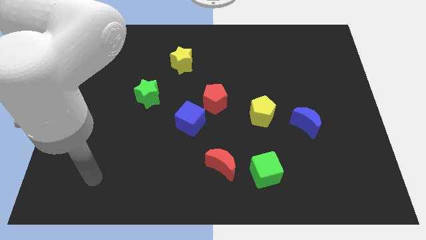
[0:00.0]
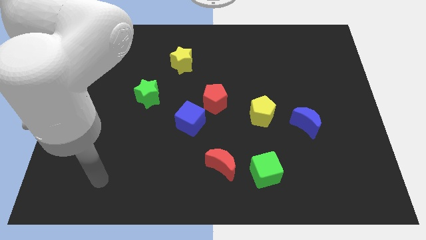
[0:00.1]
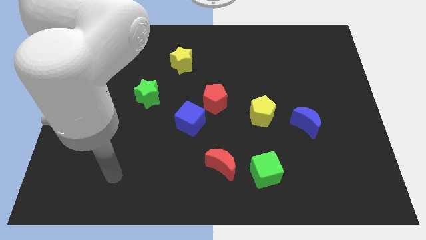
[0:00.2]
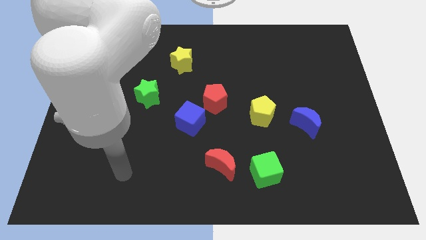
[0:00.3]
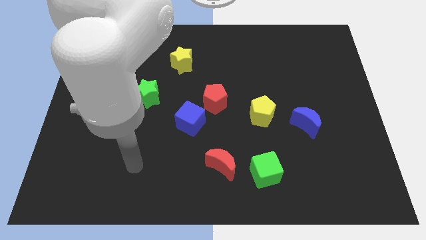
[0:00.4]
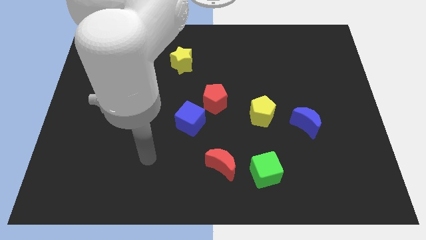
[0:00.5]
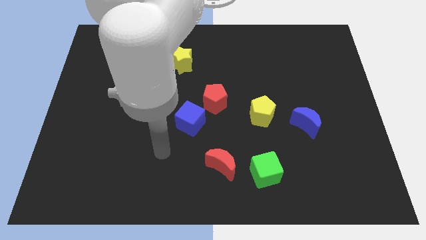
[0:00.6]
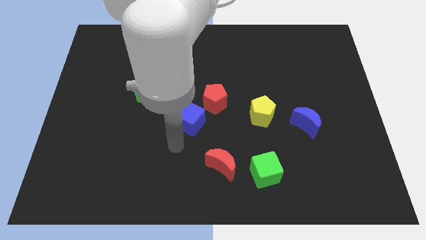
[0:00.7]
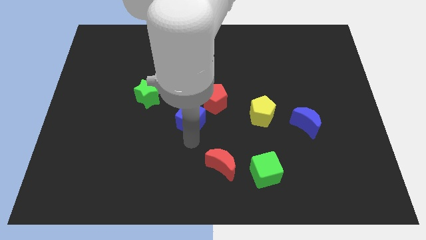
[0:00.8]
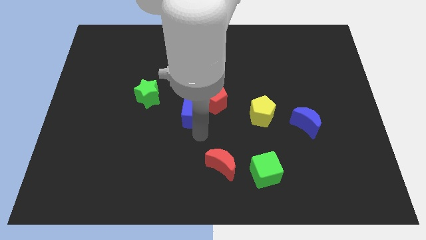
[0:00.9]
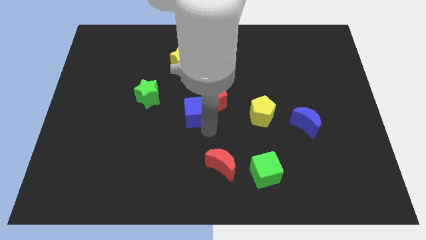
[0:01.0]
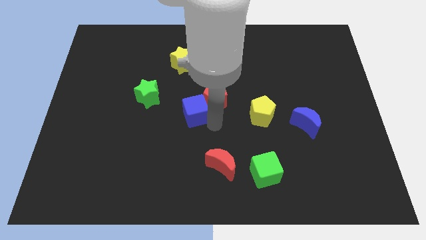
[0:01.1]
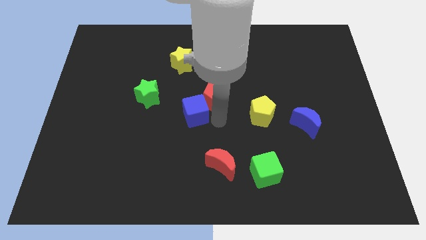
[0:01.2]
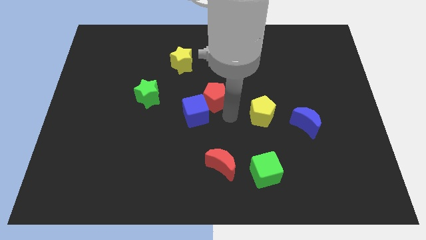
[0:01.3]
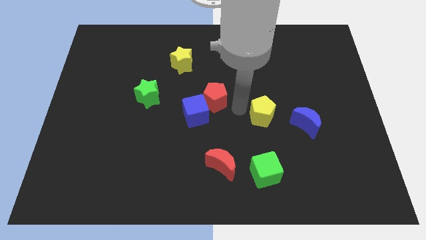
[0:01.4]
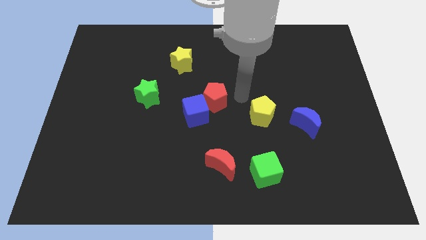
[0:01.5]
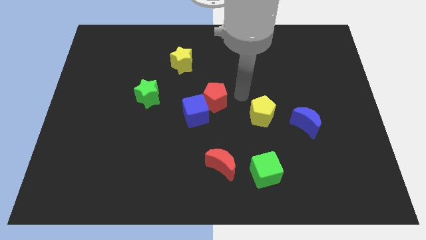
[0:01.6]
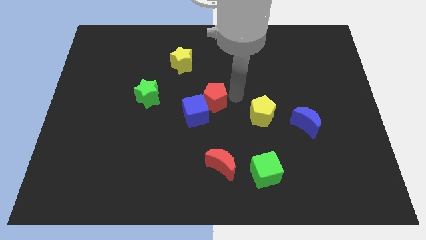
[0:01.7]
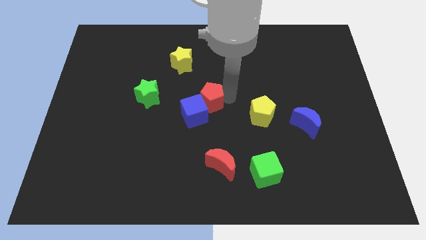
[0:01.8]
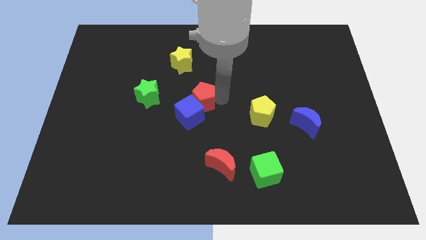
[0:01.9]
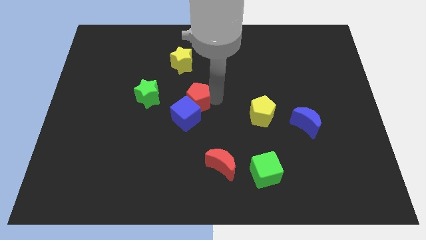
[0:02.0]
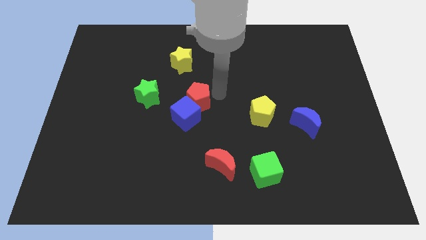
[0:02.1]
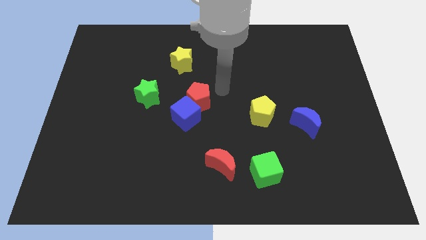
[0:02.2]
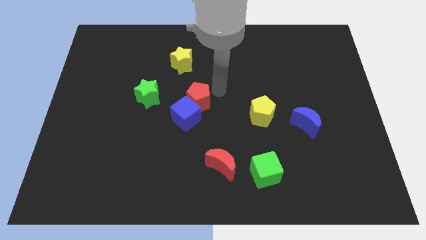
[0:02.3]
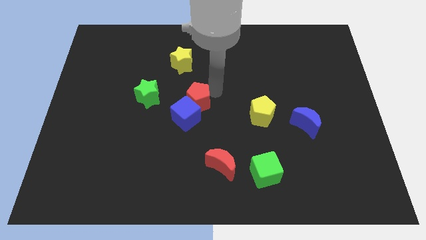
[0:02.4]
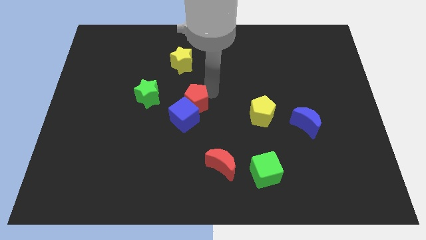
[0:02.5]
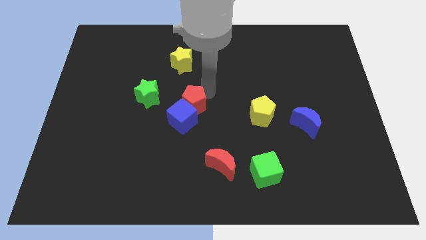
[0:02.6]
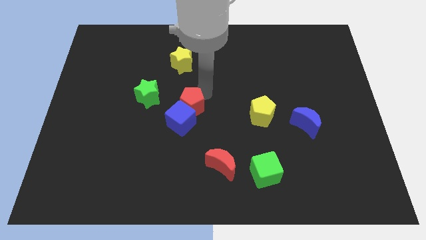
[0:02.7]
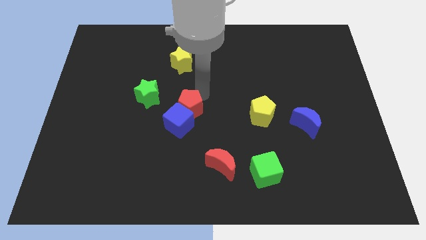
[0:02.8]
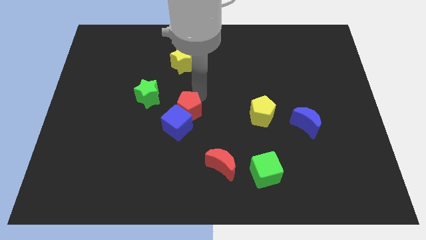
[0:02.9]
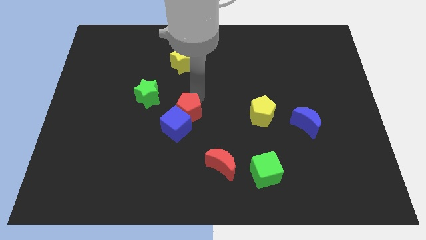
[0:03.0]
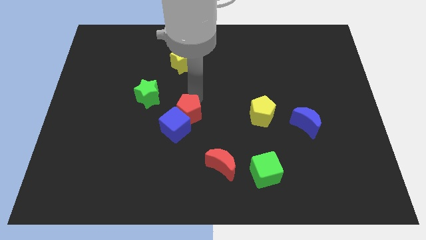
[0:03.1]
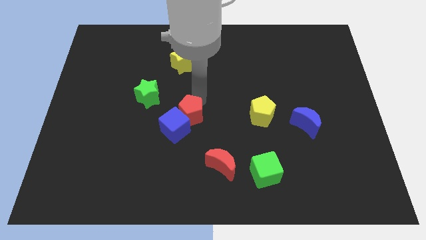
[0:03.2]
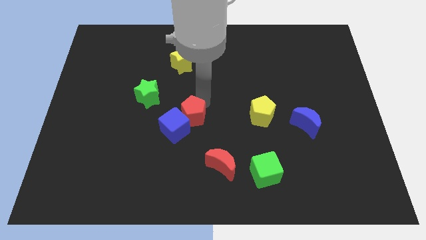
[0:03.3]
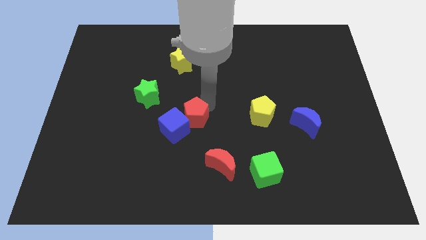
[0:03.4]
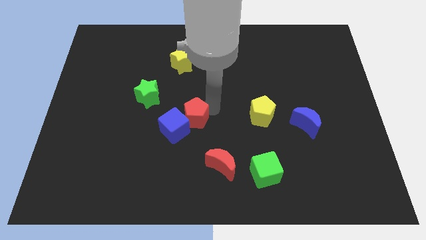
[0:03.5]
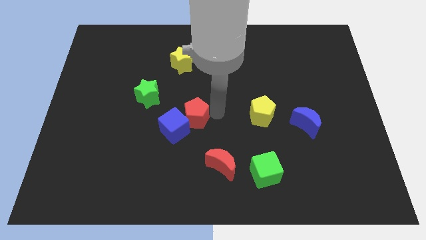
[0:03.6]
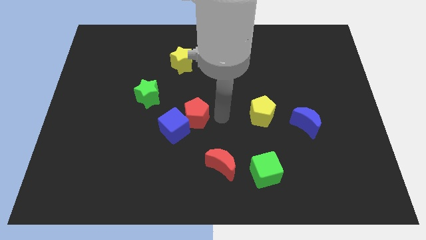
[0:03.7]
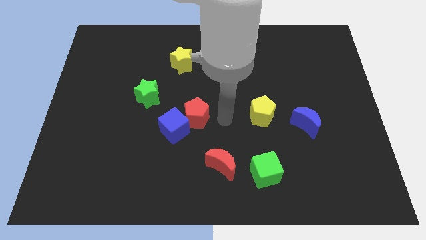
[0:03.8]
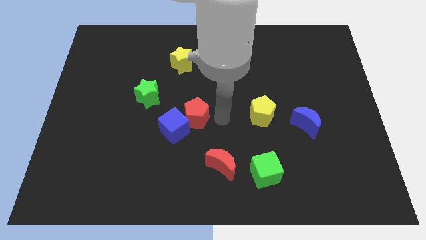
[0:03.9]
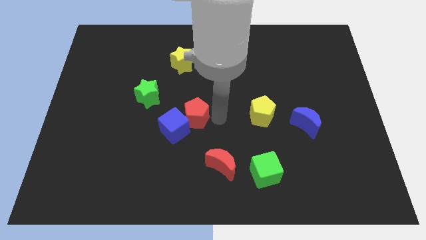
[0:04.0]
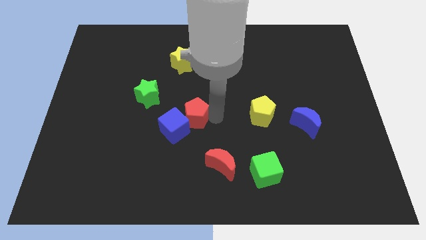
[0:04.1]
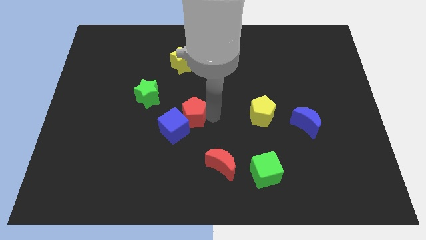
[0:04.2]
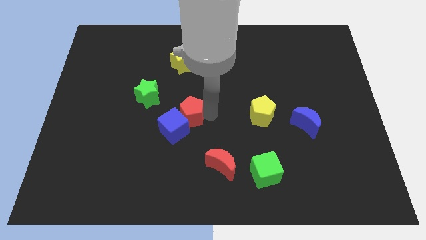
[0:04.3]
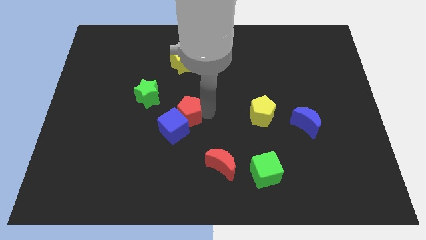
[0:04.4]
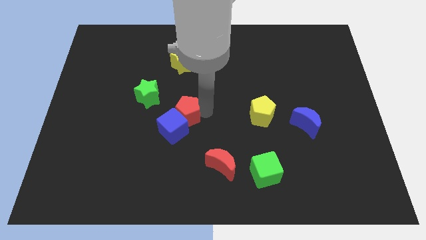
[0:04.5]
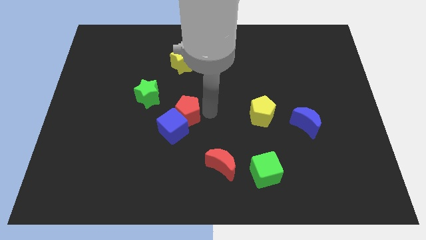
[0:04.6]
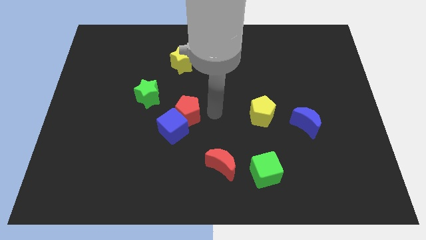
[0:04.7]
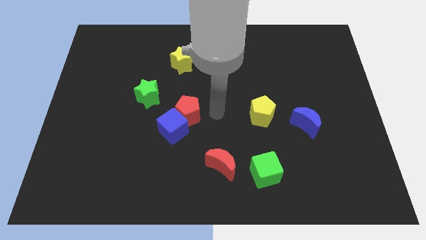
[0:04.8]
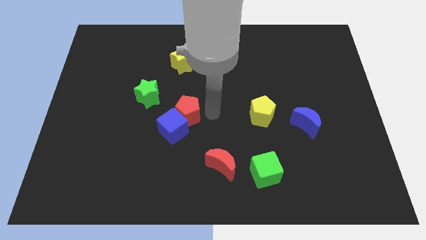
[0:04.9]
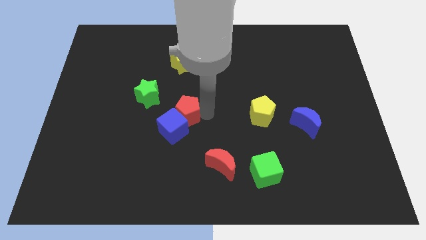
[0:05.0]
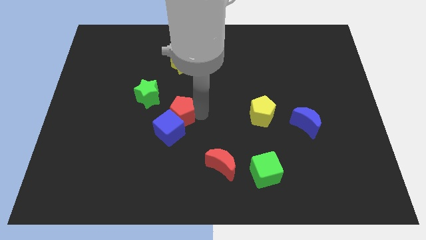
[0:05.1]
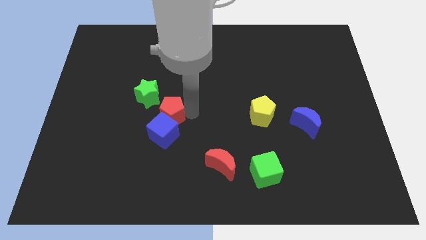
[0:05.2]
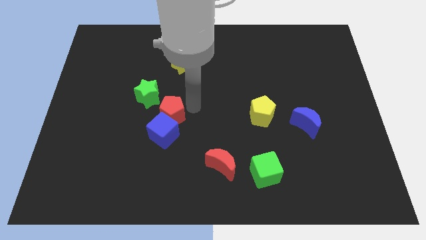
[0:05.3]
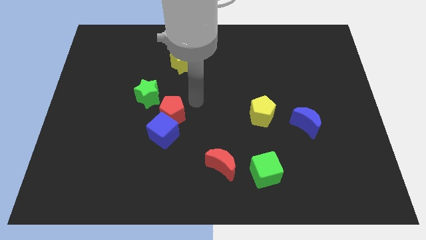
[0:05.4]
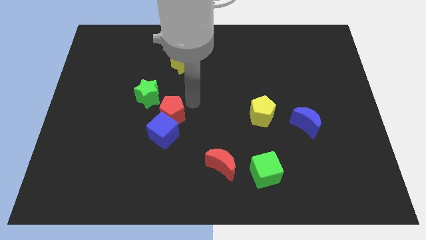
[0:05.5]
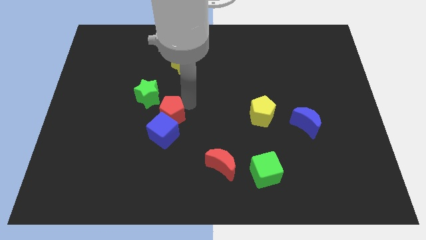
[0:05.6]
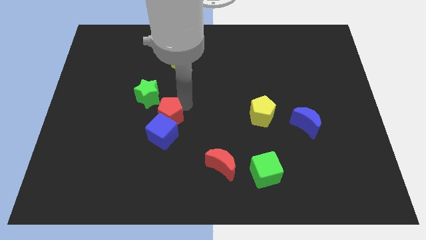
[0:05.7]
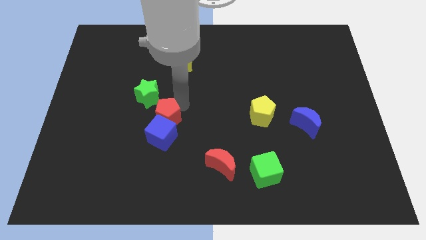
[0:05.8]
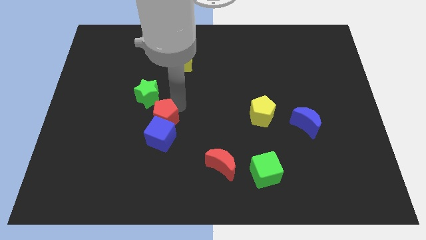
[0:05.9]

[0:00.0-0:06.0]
put the red pentagon to the bottom side of the green star

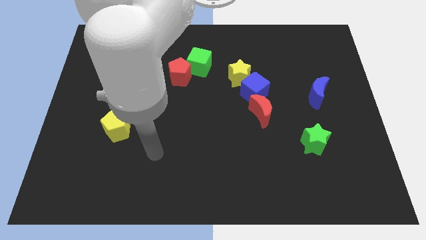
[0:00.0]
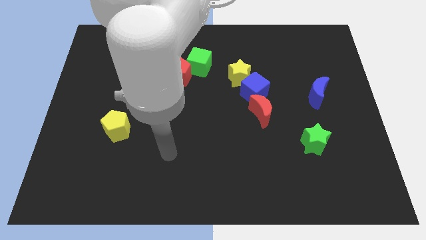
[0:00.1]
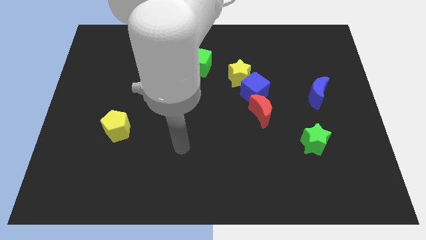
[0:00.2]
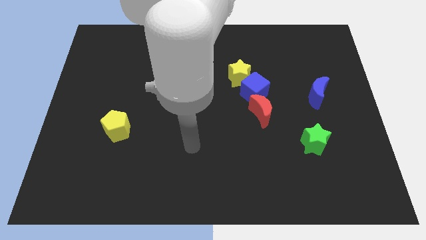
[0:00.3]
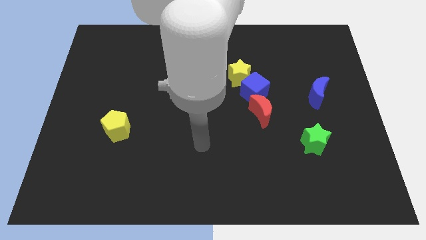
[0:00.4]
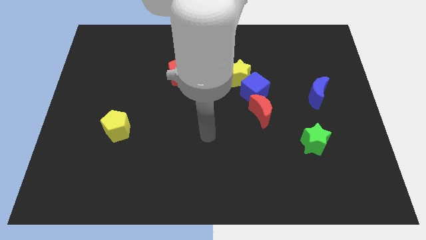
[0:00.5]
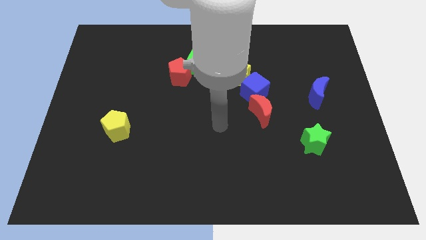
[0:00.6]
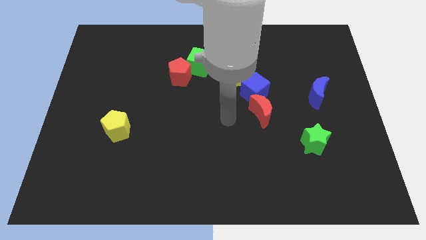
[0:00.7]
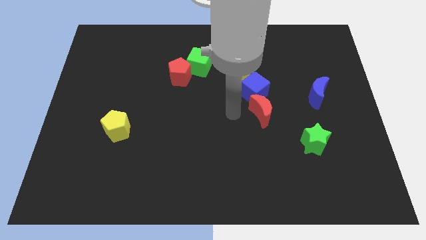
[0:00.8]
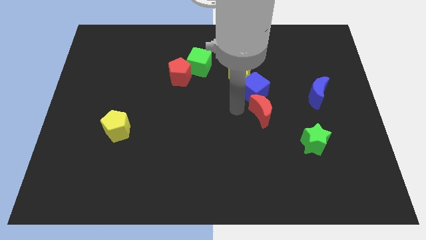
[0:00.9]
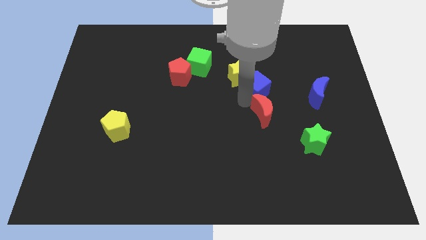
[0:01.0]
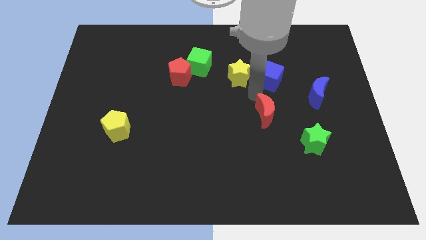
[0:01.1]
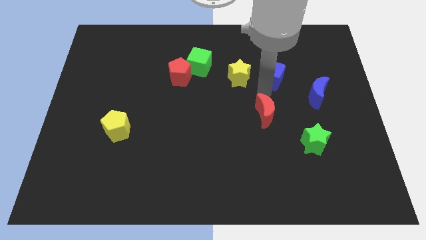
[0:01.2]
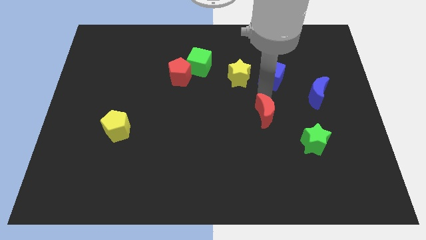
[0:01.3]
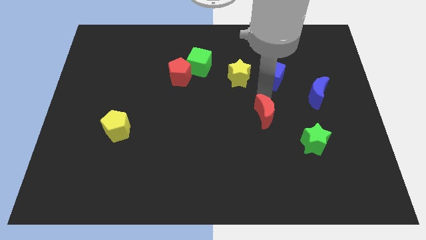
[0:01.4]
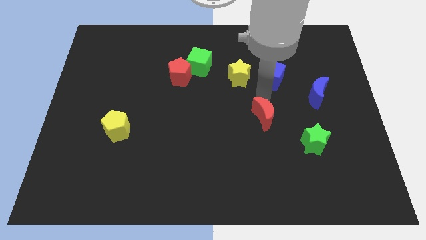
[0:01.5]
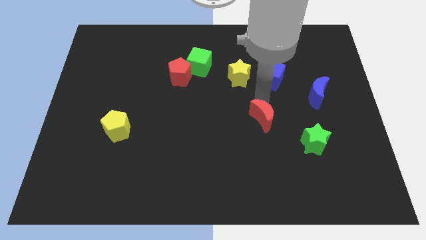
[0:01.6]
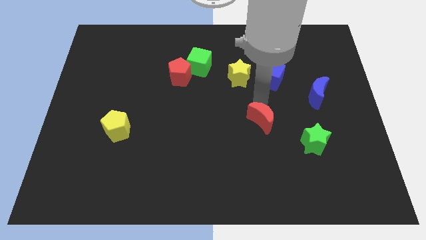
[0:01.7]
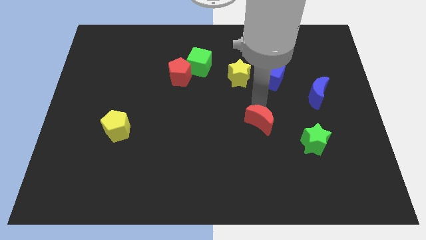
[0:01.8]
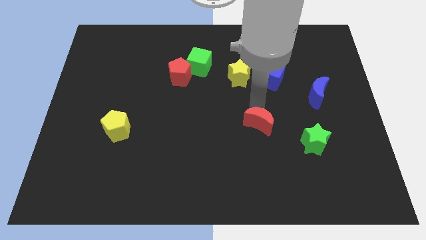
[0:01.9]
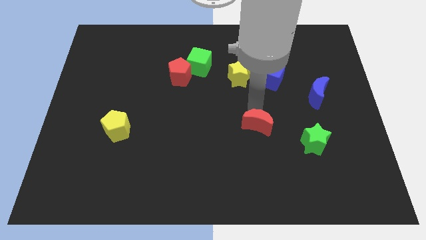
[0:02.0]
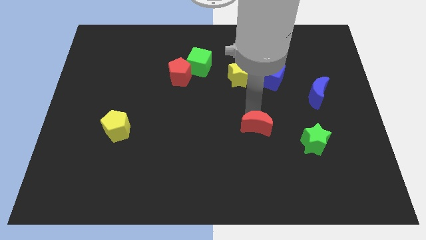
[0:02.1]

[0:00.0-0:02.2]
put the red moon to the left of the green star
